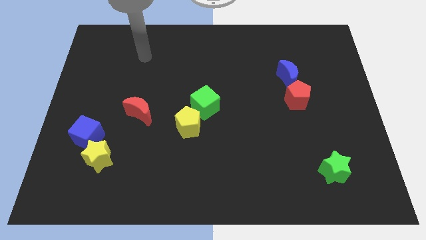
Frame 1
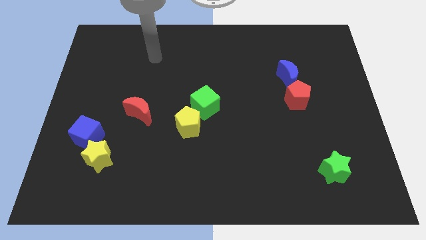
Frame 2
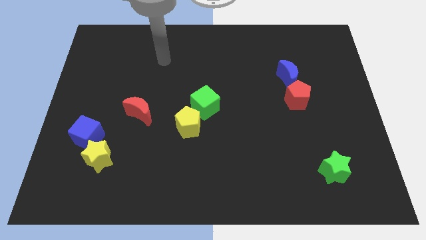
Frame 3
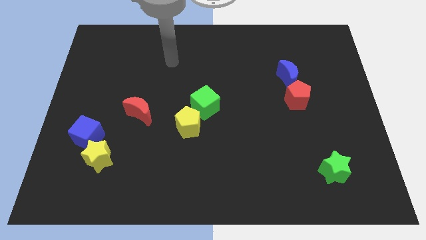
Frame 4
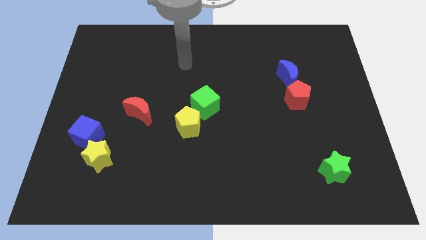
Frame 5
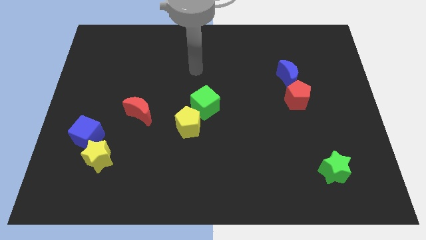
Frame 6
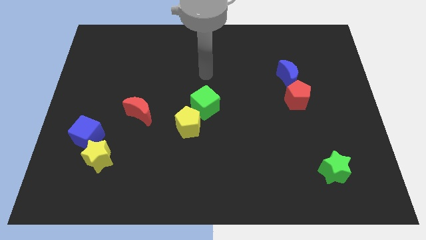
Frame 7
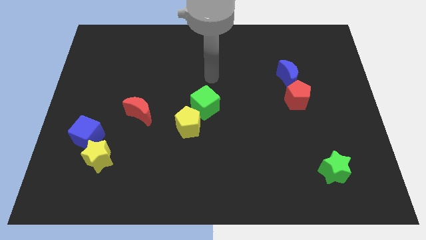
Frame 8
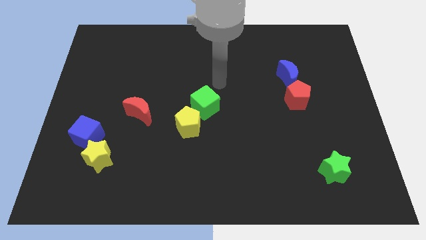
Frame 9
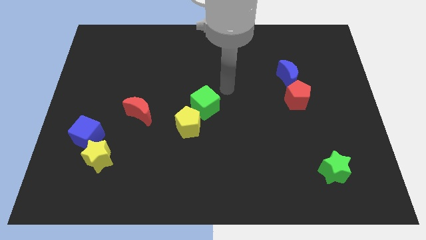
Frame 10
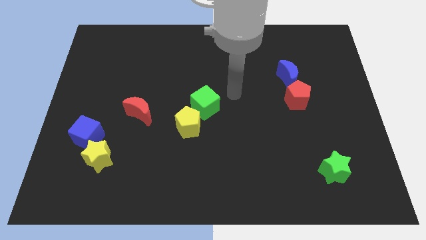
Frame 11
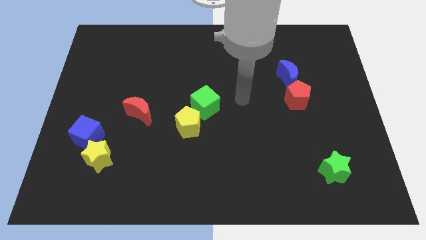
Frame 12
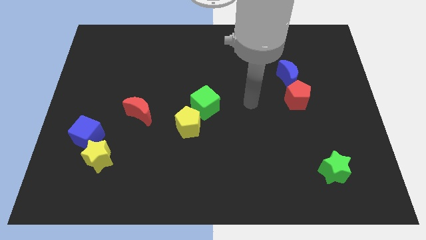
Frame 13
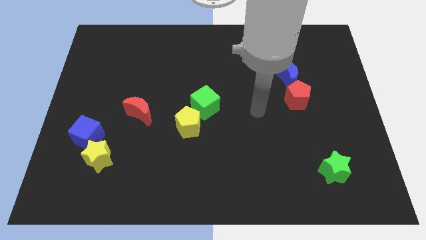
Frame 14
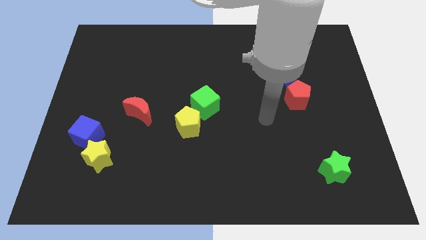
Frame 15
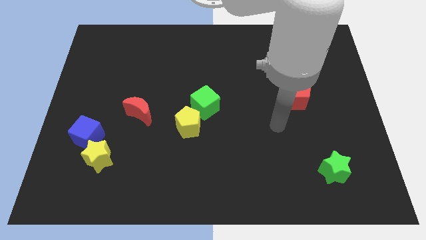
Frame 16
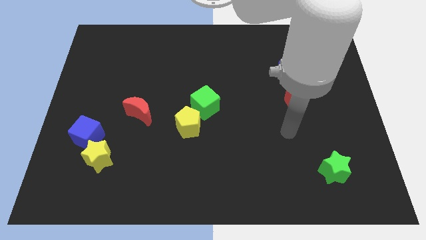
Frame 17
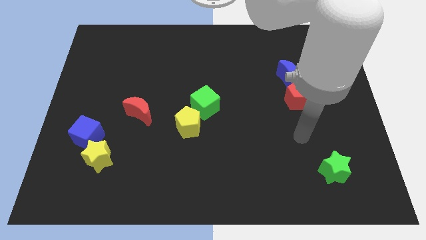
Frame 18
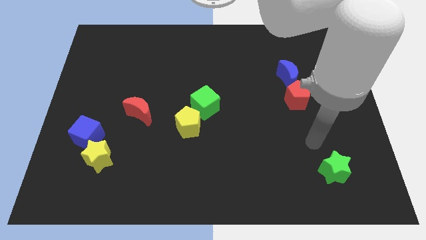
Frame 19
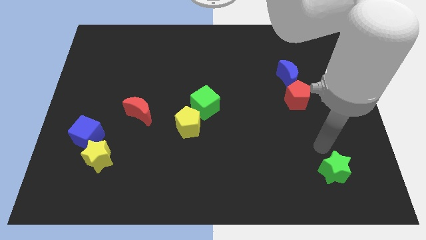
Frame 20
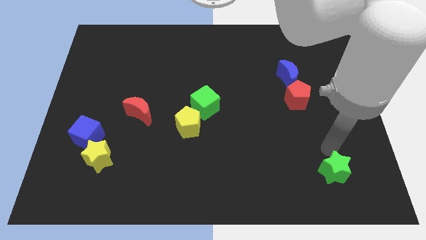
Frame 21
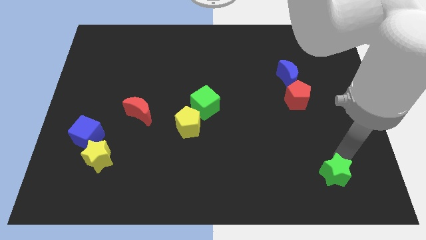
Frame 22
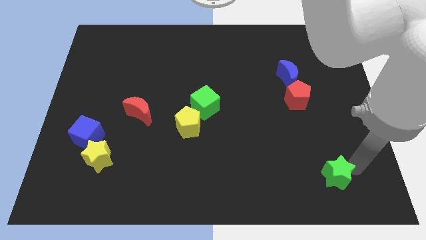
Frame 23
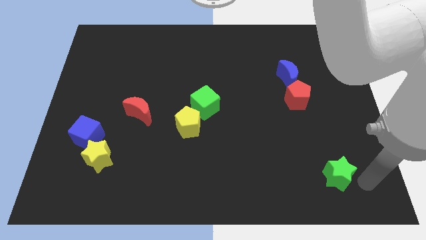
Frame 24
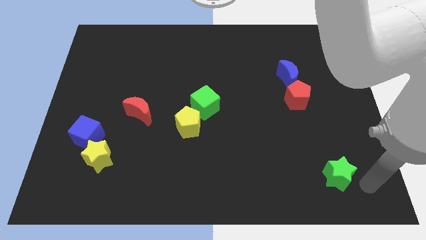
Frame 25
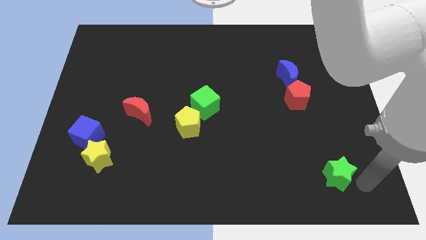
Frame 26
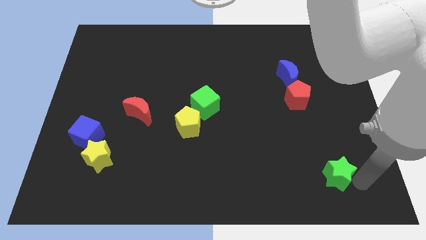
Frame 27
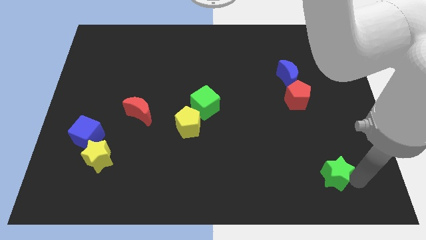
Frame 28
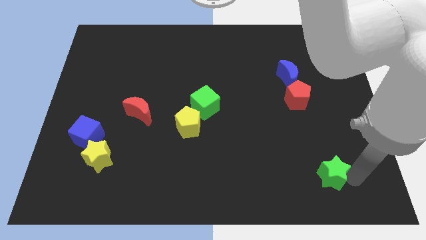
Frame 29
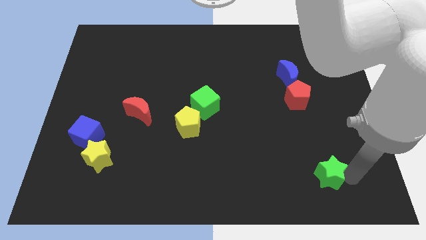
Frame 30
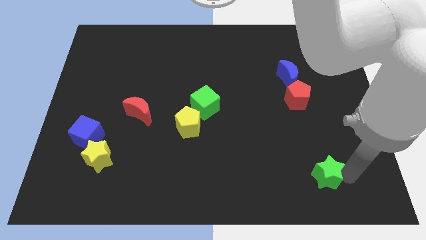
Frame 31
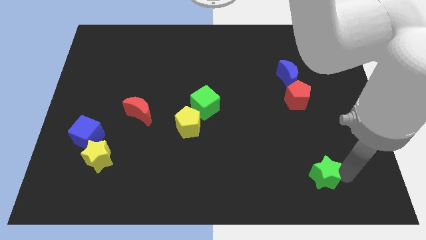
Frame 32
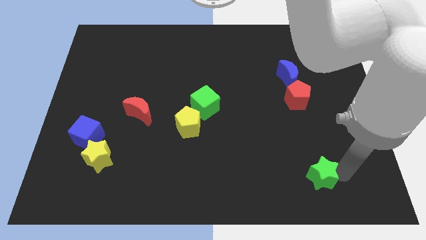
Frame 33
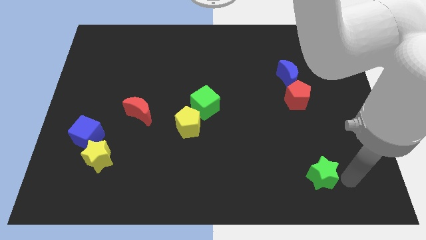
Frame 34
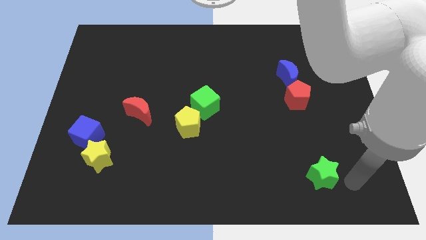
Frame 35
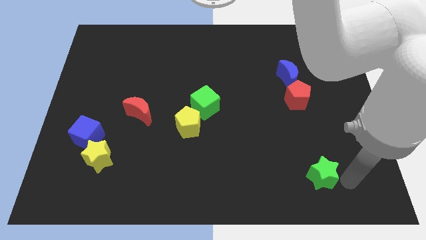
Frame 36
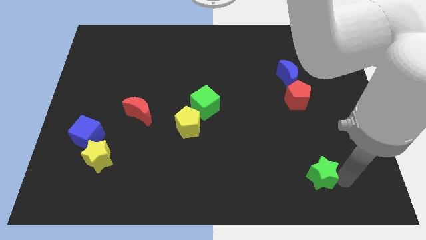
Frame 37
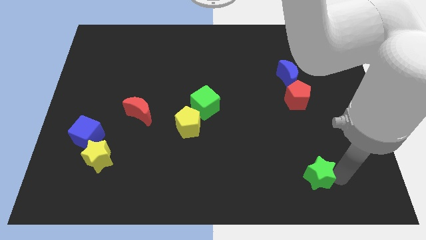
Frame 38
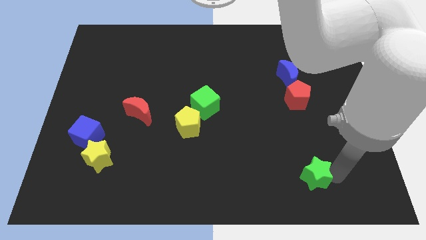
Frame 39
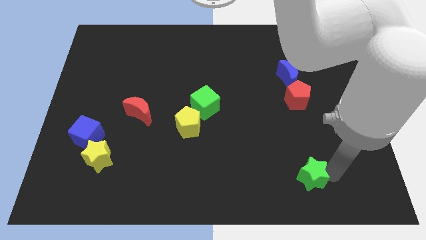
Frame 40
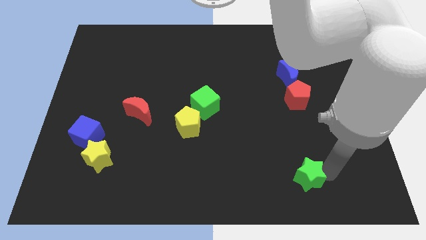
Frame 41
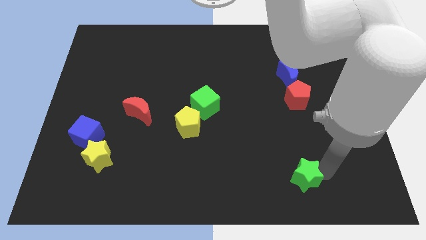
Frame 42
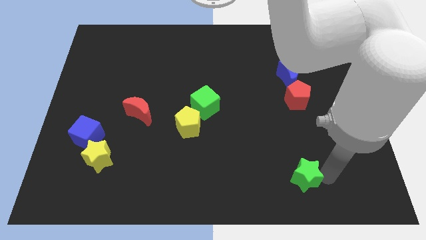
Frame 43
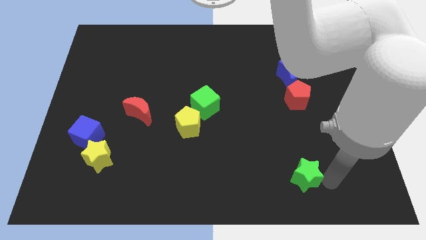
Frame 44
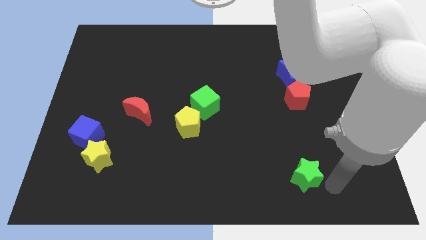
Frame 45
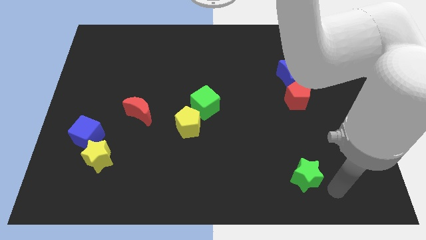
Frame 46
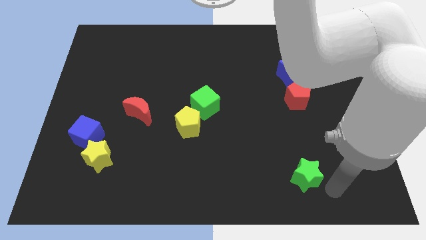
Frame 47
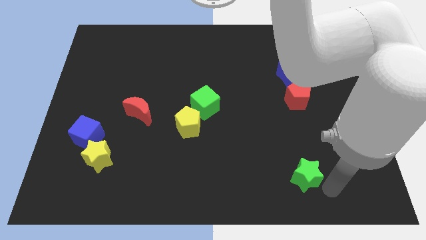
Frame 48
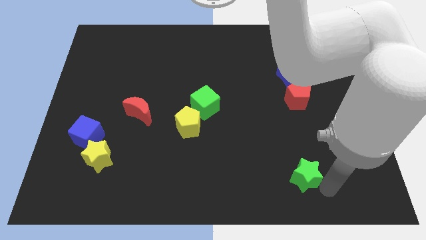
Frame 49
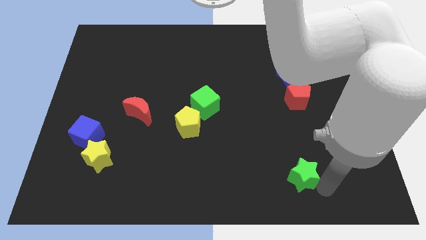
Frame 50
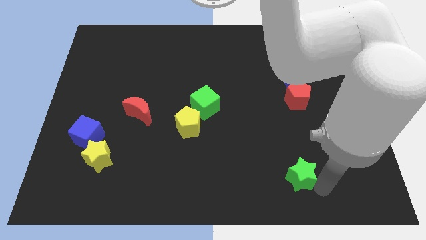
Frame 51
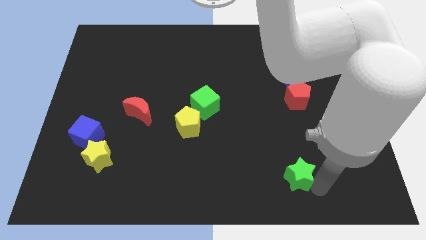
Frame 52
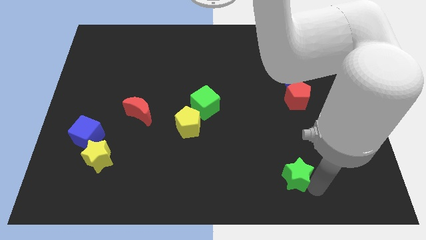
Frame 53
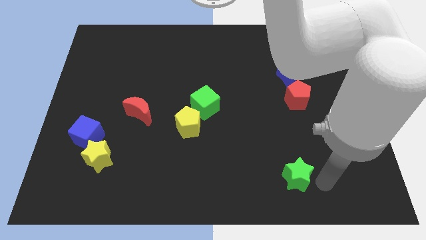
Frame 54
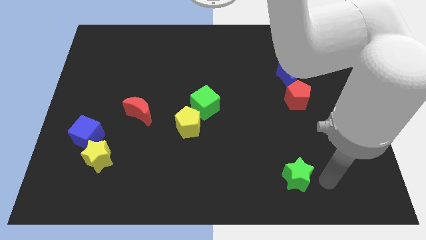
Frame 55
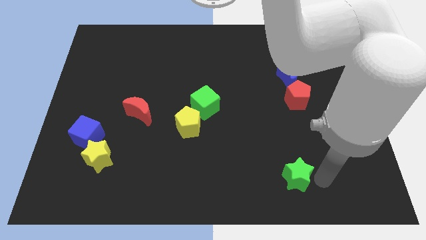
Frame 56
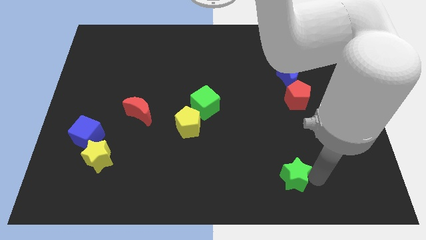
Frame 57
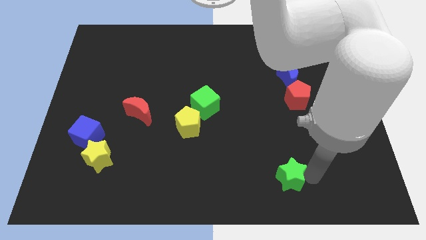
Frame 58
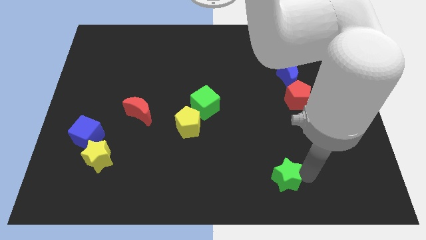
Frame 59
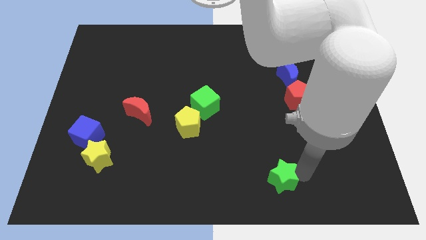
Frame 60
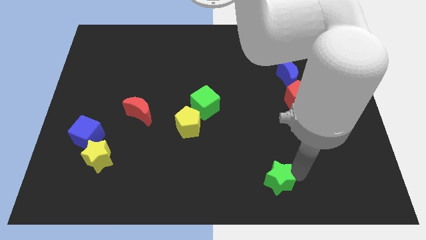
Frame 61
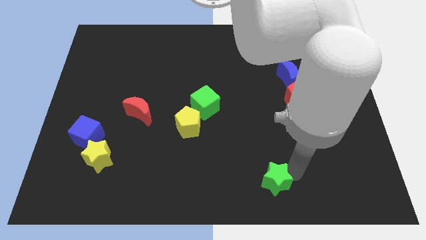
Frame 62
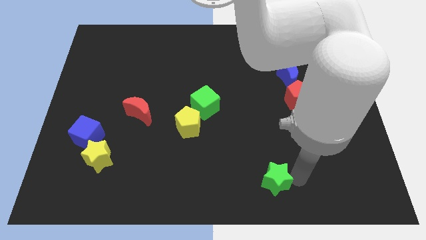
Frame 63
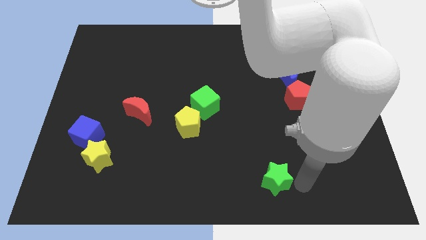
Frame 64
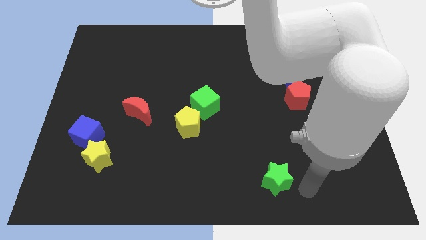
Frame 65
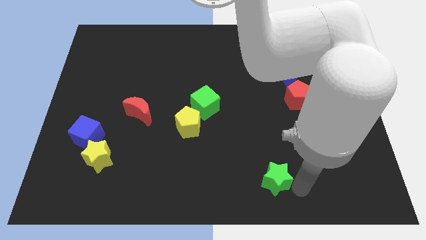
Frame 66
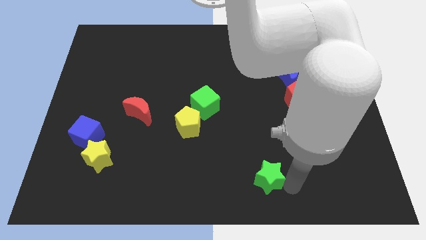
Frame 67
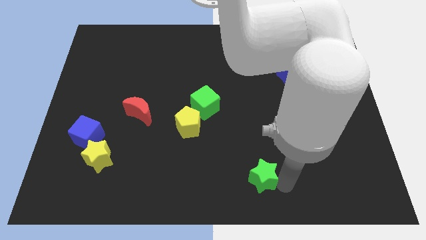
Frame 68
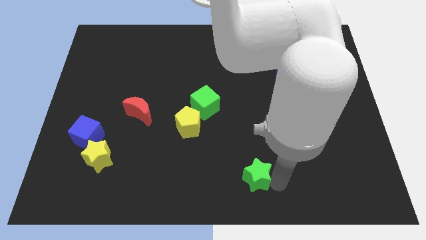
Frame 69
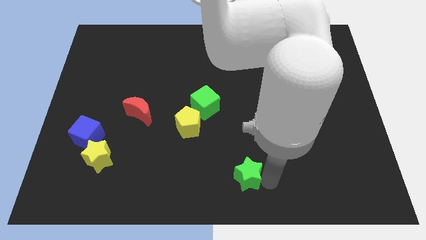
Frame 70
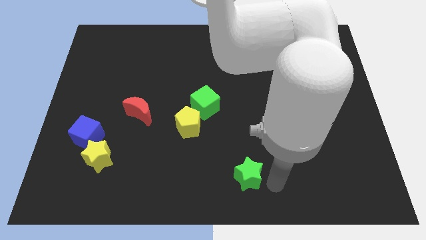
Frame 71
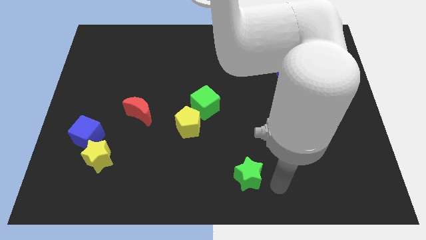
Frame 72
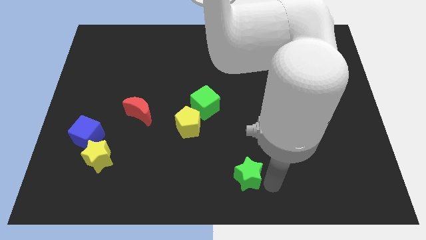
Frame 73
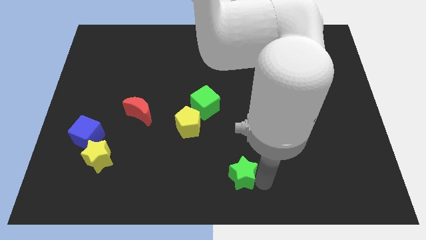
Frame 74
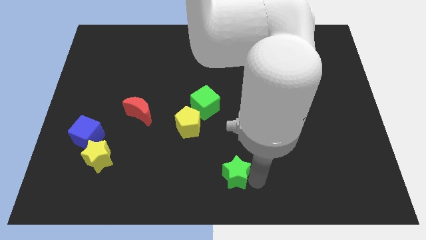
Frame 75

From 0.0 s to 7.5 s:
move the green star to the left

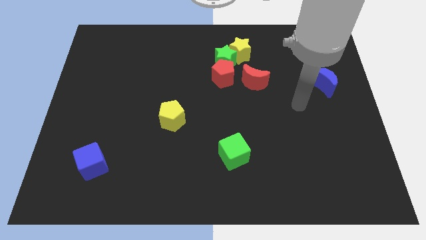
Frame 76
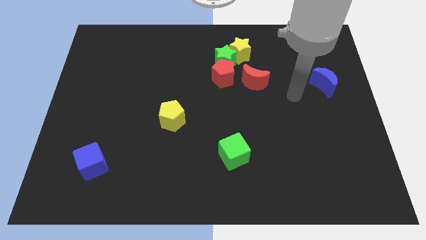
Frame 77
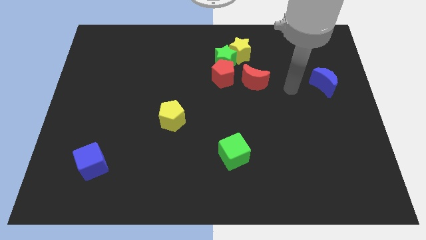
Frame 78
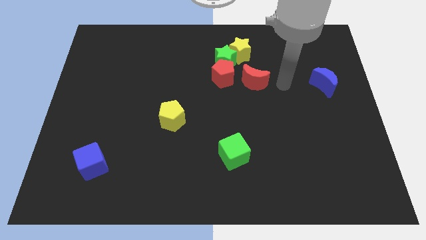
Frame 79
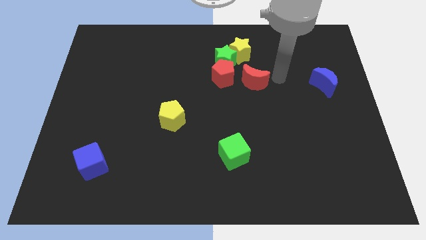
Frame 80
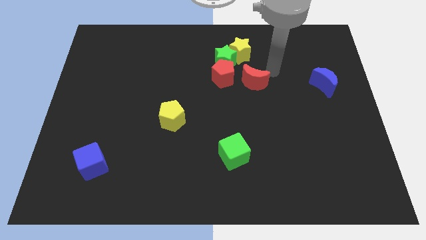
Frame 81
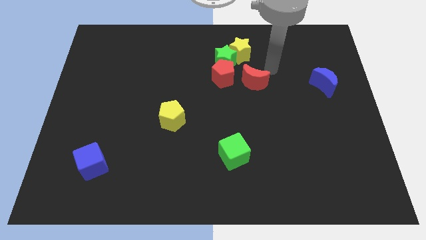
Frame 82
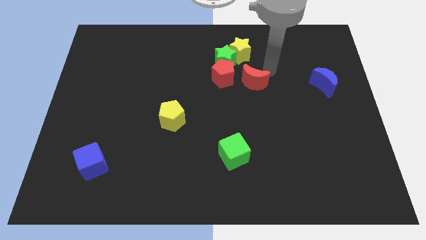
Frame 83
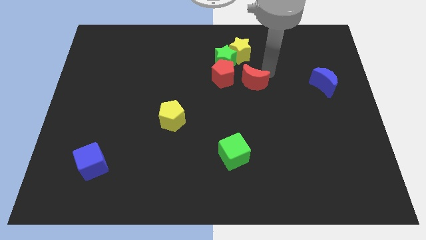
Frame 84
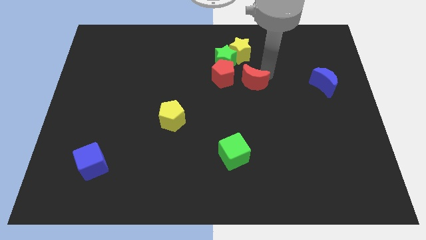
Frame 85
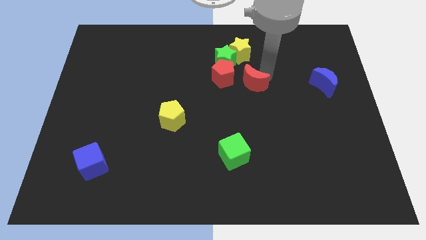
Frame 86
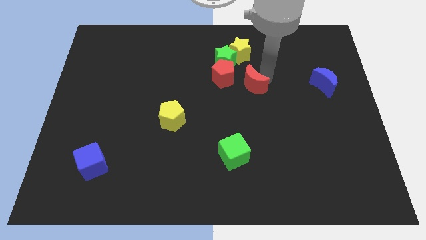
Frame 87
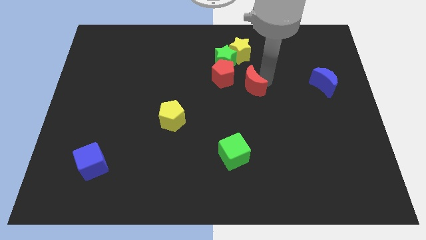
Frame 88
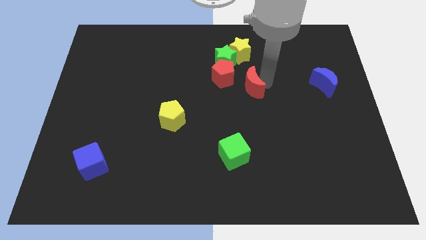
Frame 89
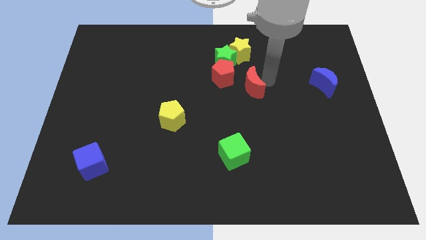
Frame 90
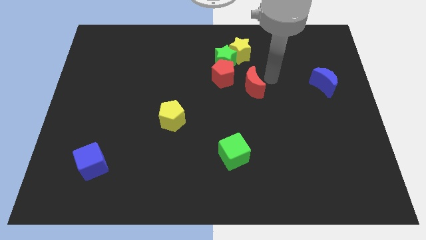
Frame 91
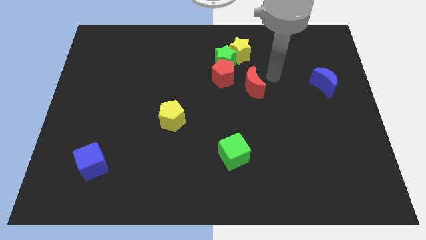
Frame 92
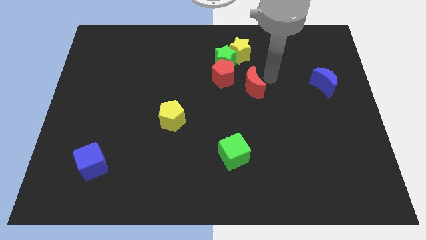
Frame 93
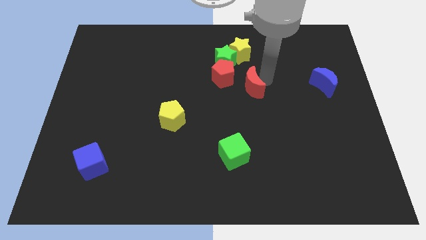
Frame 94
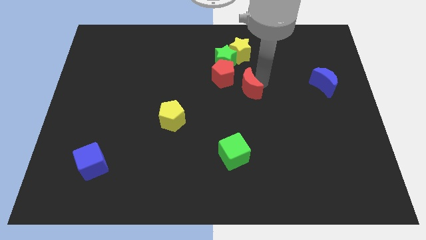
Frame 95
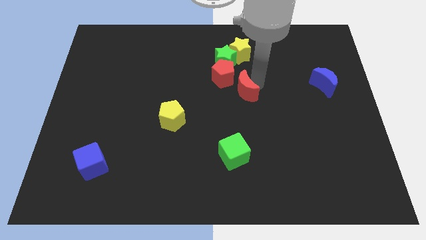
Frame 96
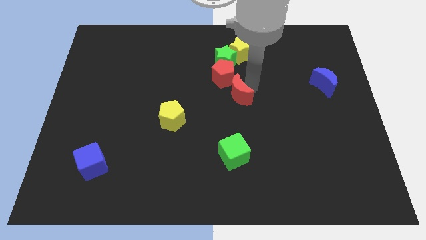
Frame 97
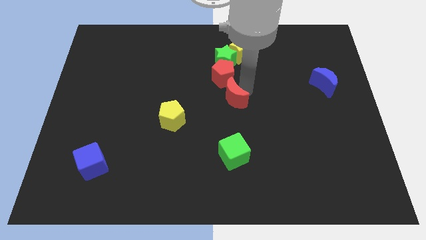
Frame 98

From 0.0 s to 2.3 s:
move the red moon somewhat down and left diagonally
